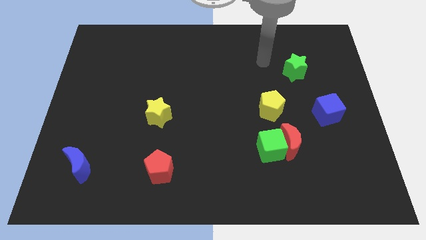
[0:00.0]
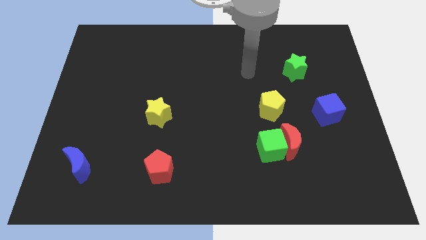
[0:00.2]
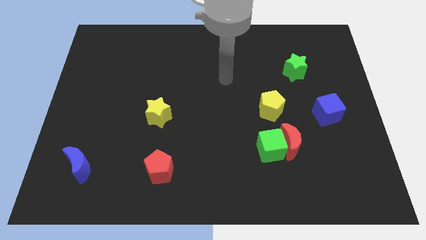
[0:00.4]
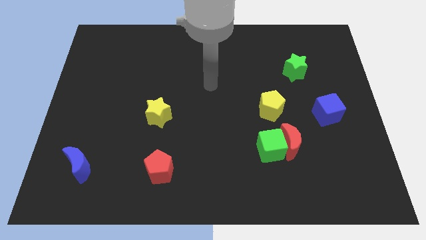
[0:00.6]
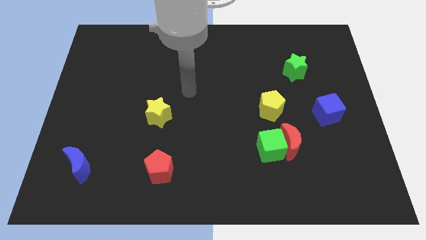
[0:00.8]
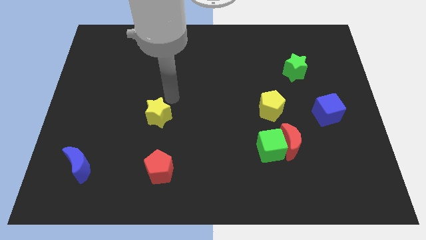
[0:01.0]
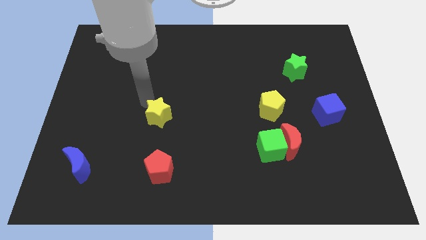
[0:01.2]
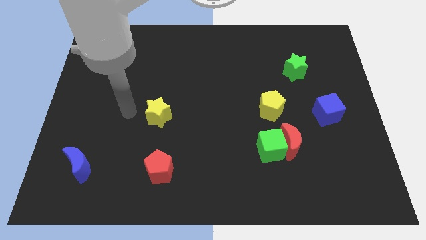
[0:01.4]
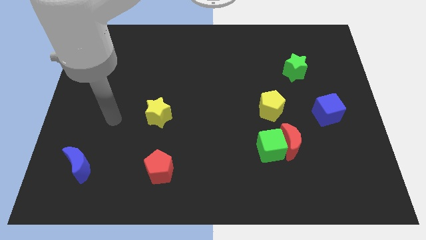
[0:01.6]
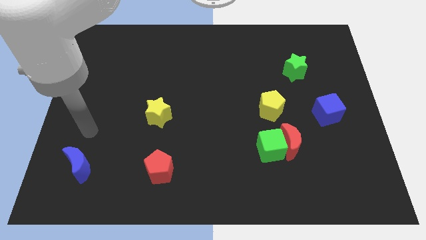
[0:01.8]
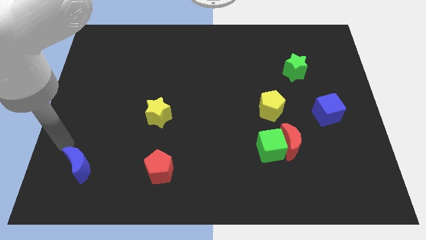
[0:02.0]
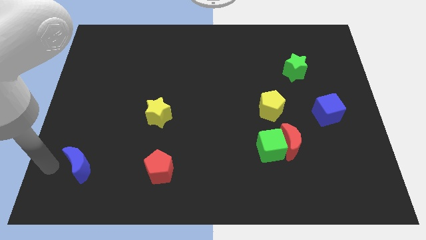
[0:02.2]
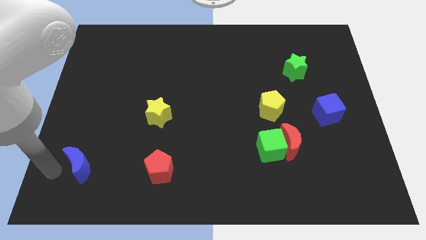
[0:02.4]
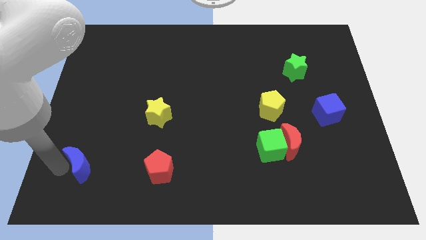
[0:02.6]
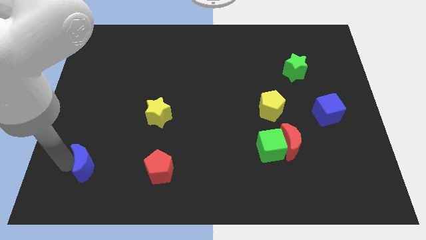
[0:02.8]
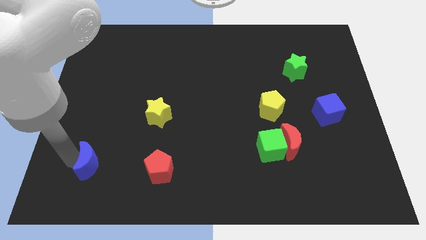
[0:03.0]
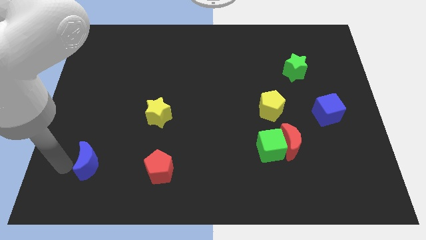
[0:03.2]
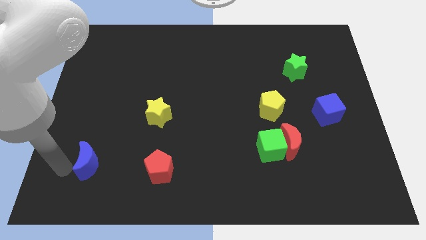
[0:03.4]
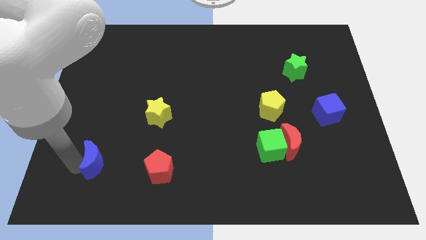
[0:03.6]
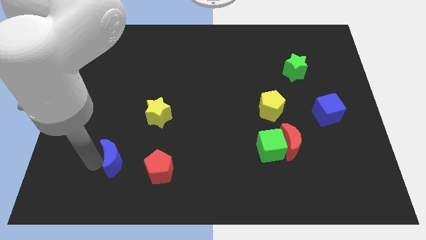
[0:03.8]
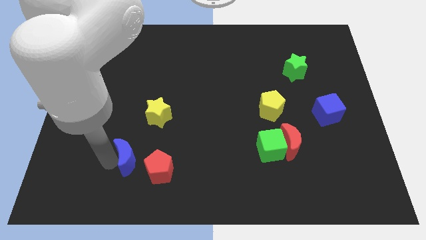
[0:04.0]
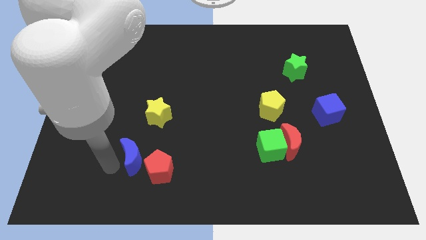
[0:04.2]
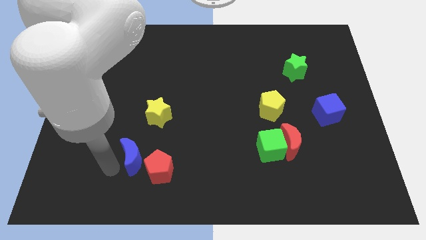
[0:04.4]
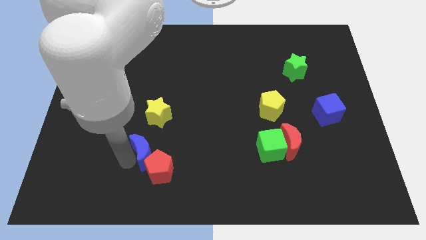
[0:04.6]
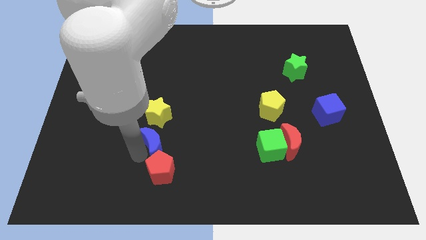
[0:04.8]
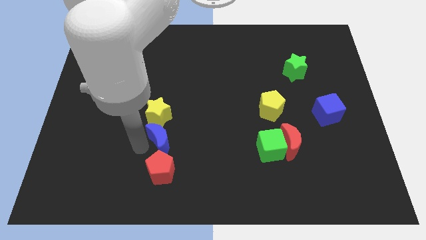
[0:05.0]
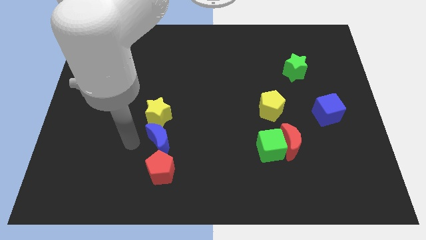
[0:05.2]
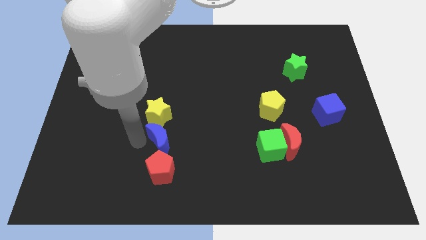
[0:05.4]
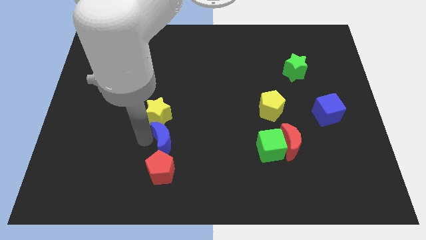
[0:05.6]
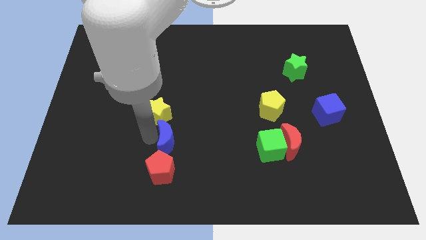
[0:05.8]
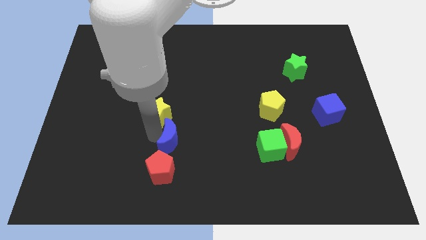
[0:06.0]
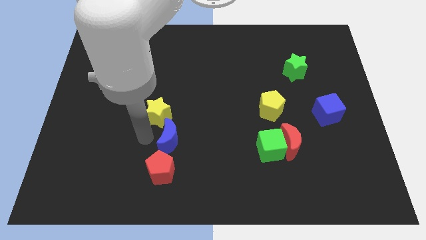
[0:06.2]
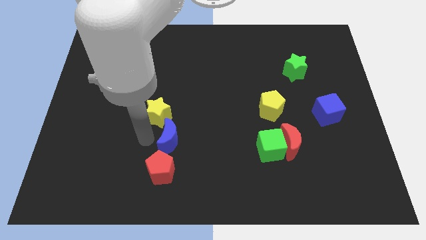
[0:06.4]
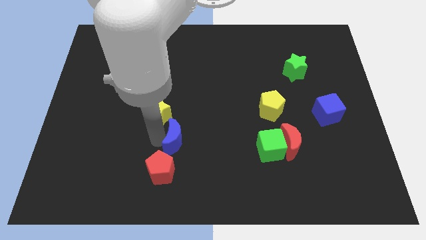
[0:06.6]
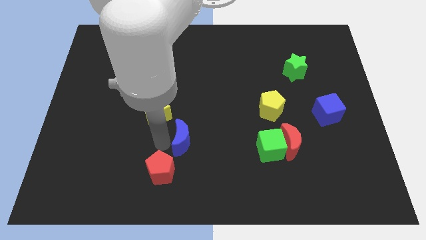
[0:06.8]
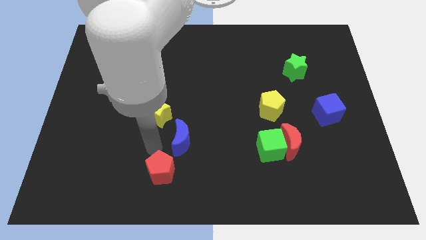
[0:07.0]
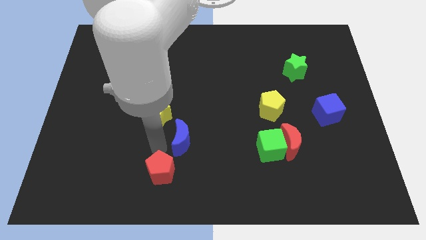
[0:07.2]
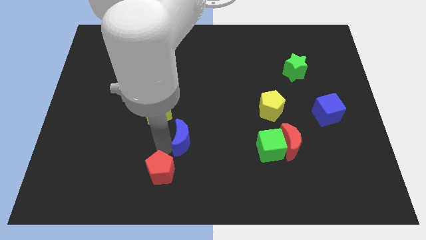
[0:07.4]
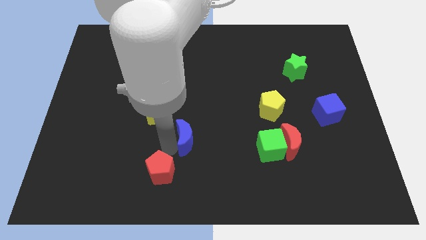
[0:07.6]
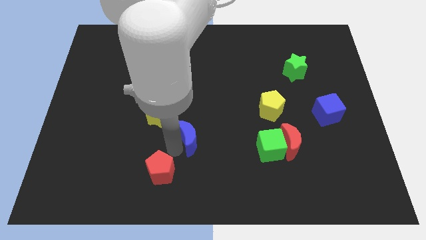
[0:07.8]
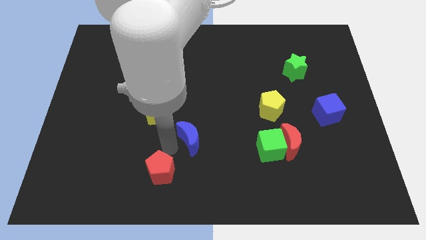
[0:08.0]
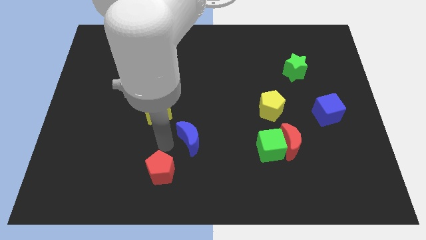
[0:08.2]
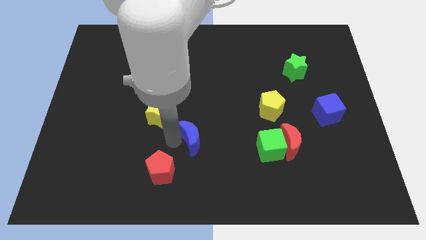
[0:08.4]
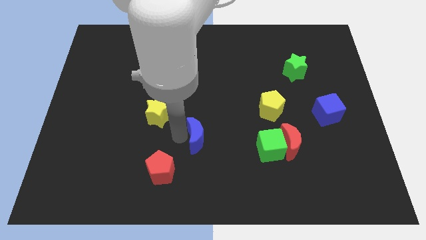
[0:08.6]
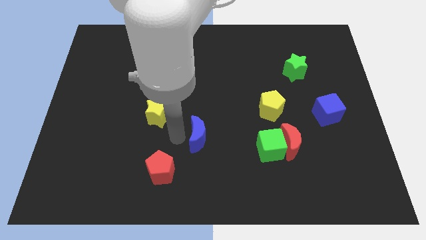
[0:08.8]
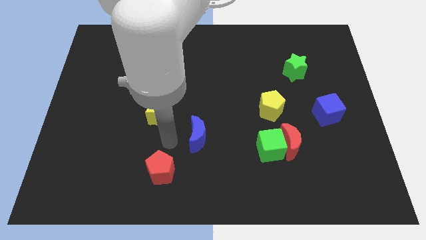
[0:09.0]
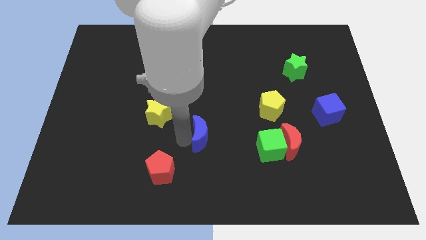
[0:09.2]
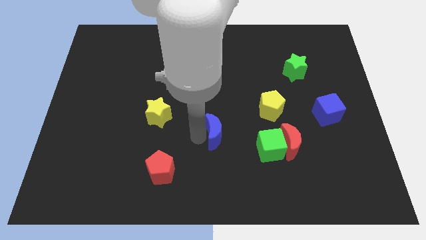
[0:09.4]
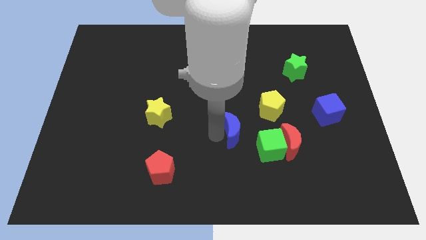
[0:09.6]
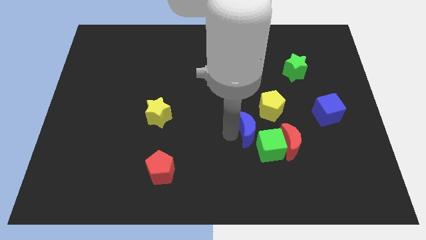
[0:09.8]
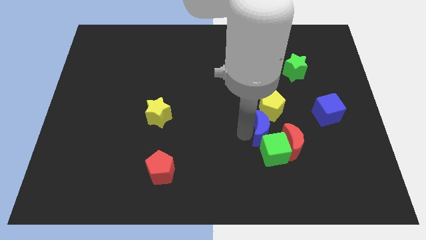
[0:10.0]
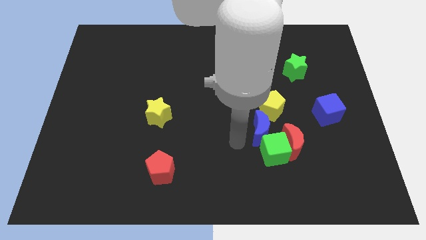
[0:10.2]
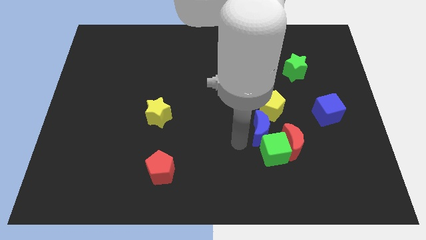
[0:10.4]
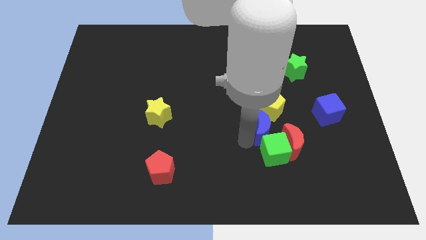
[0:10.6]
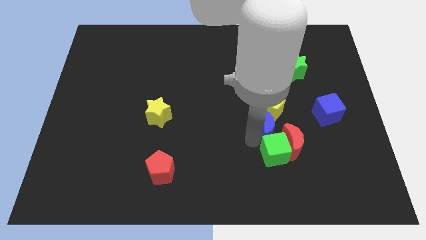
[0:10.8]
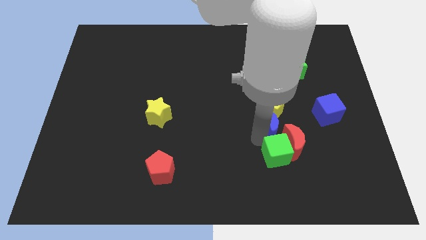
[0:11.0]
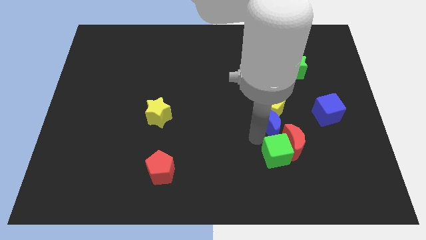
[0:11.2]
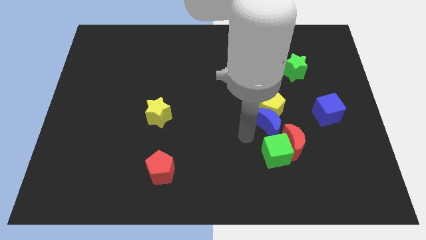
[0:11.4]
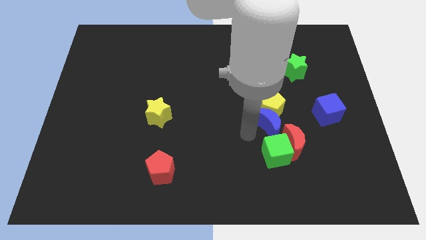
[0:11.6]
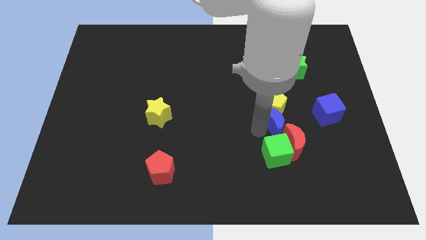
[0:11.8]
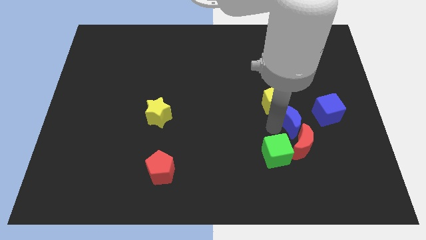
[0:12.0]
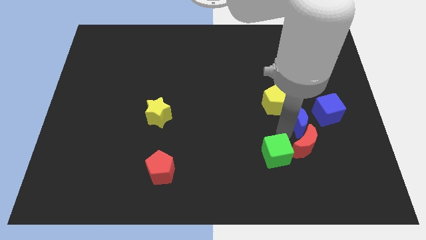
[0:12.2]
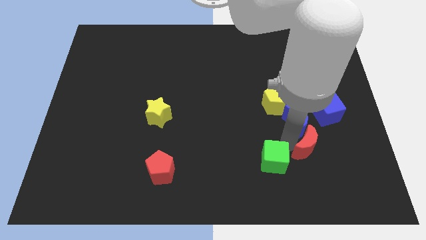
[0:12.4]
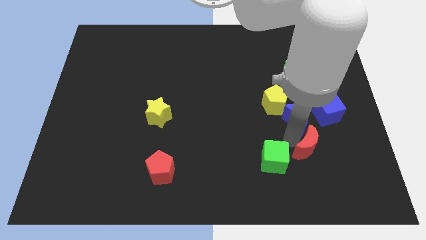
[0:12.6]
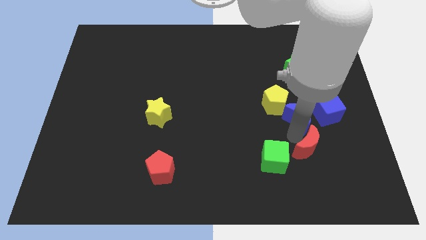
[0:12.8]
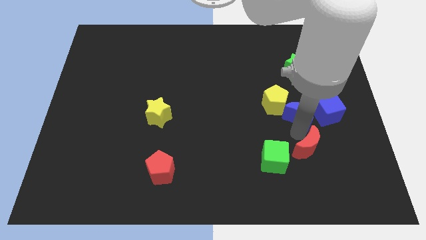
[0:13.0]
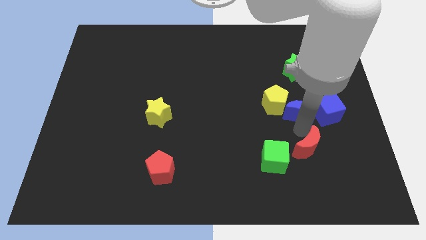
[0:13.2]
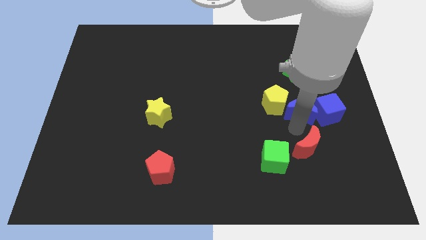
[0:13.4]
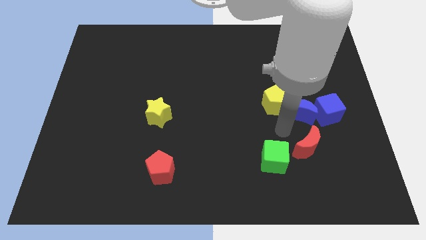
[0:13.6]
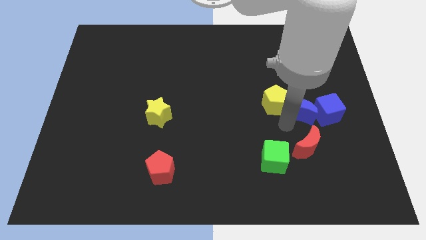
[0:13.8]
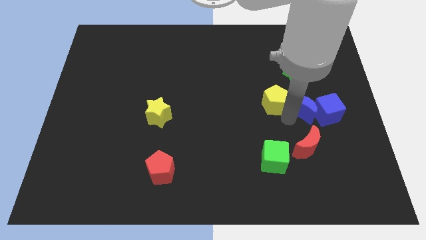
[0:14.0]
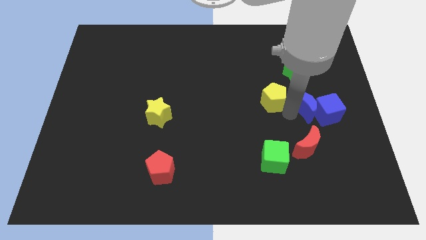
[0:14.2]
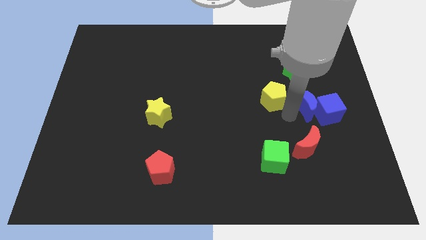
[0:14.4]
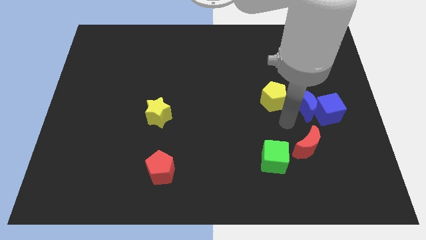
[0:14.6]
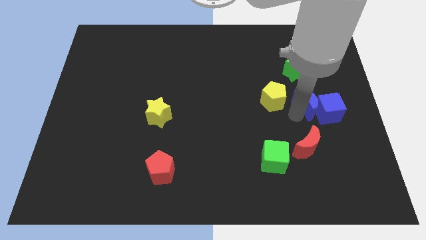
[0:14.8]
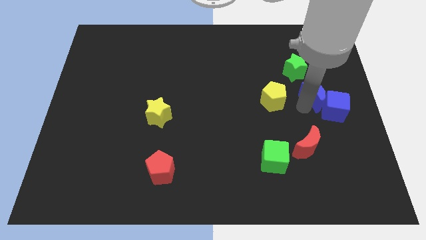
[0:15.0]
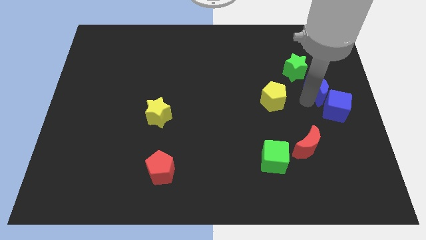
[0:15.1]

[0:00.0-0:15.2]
slide the blue moon to the right side of the board
